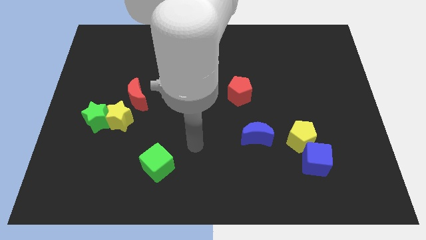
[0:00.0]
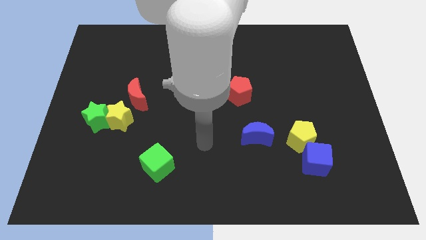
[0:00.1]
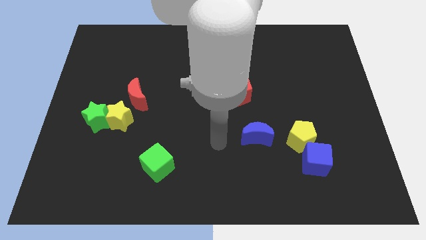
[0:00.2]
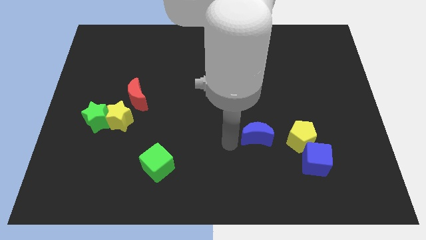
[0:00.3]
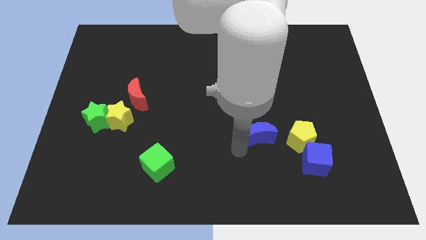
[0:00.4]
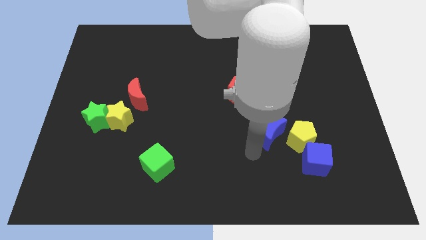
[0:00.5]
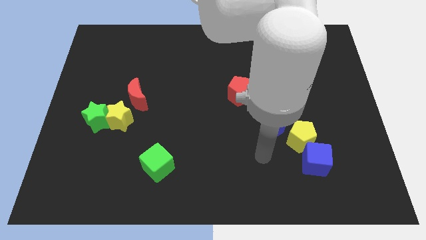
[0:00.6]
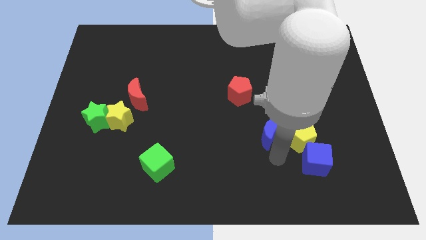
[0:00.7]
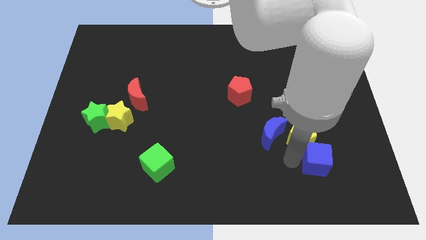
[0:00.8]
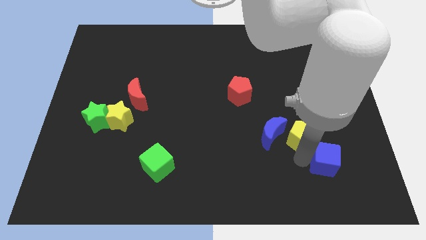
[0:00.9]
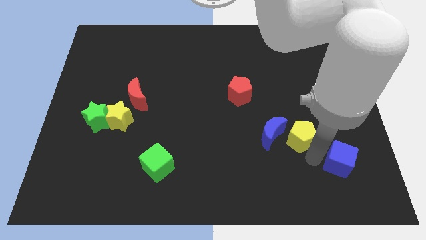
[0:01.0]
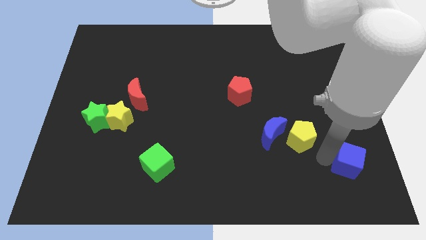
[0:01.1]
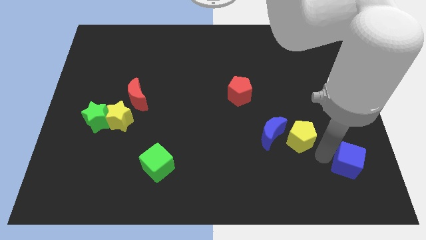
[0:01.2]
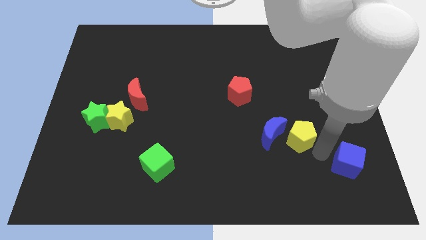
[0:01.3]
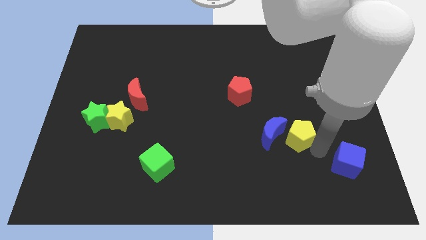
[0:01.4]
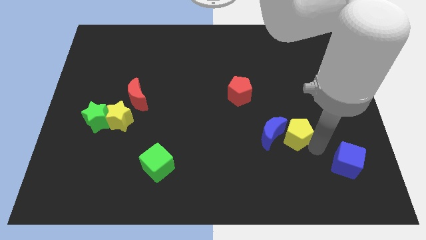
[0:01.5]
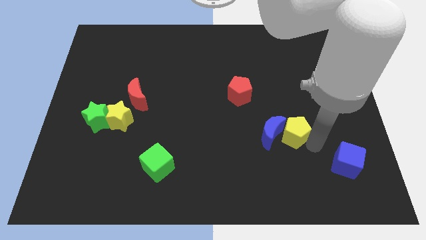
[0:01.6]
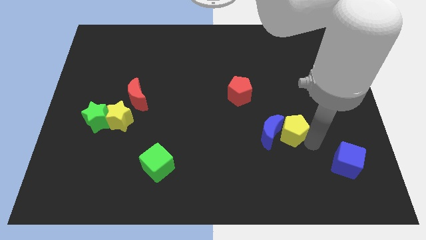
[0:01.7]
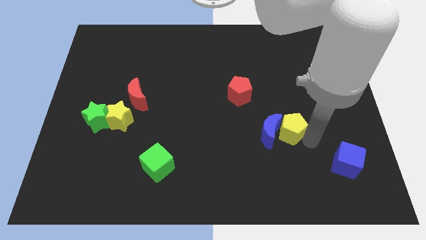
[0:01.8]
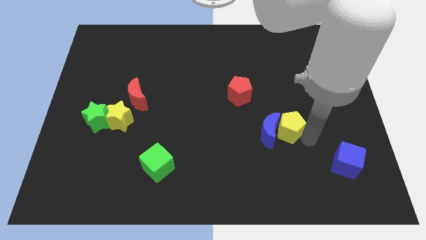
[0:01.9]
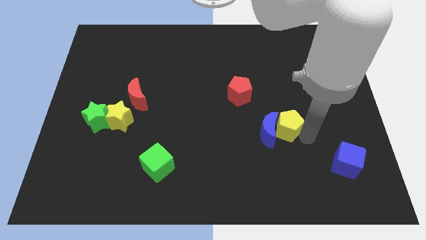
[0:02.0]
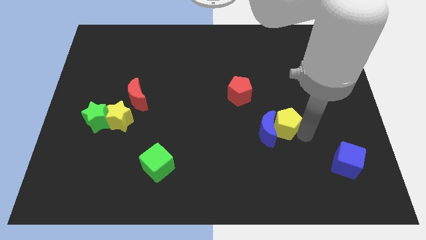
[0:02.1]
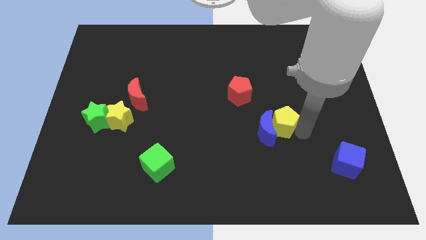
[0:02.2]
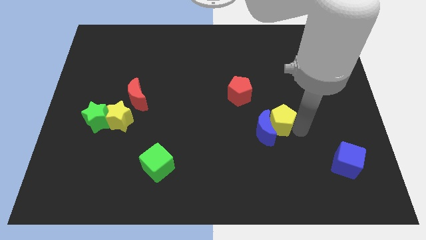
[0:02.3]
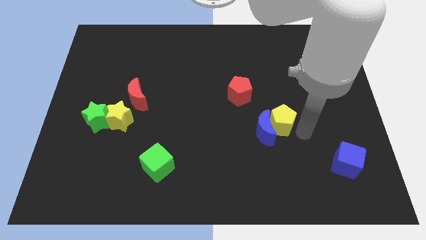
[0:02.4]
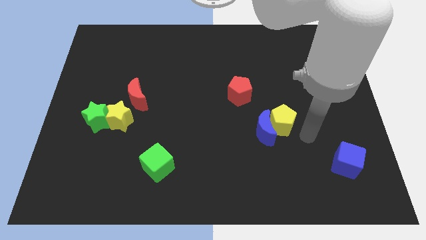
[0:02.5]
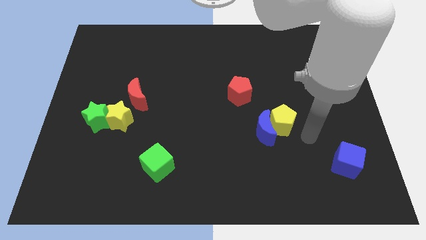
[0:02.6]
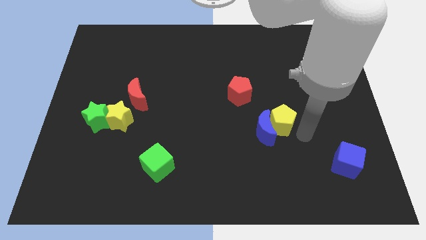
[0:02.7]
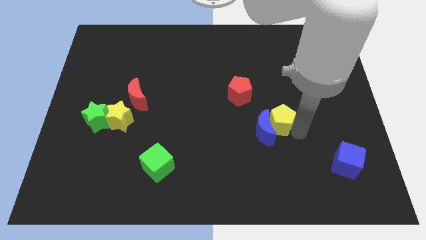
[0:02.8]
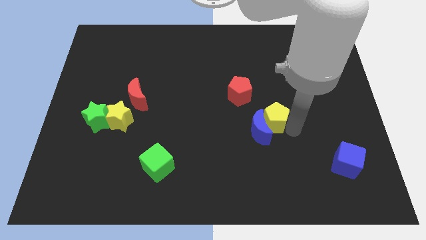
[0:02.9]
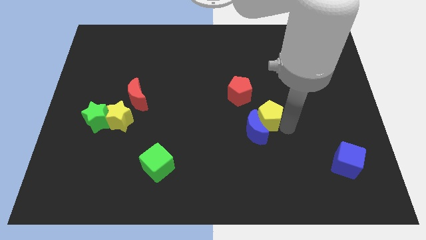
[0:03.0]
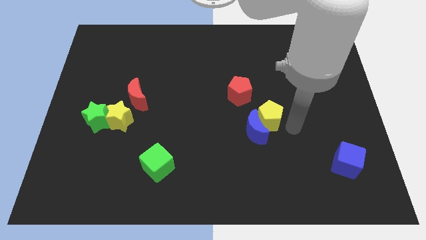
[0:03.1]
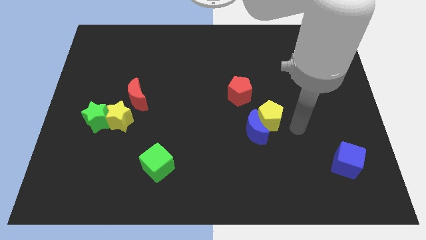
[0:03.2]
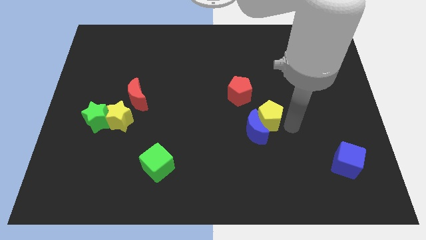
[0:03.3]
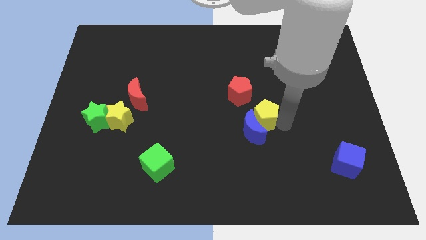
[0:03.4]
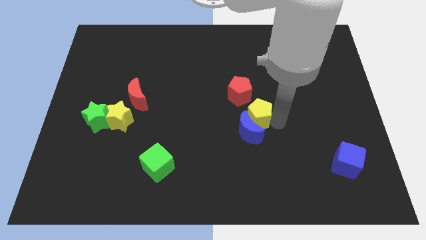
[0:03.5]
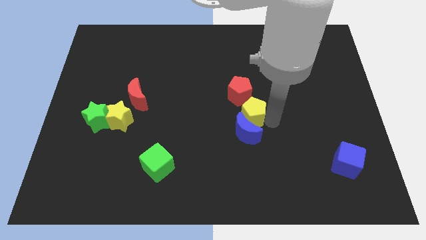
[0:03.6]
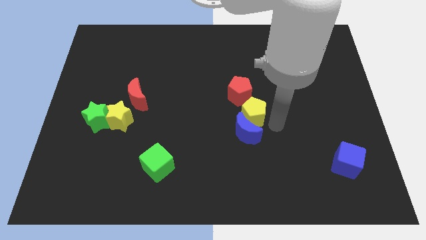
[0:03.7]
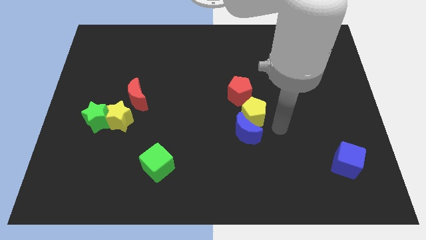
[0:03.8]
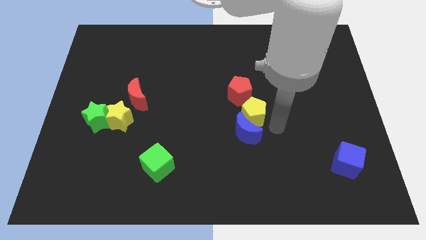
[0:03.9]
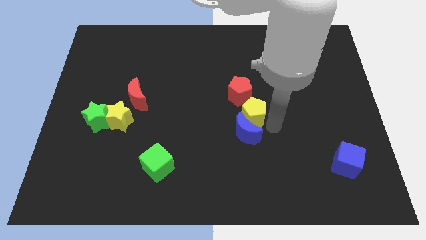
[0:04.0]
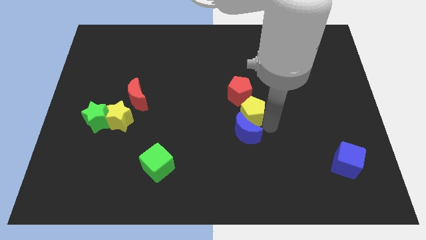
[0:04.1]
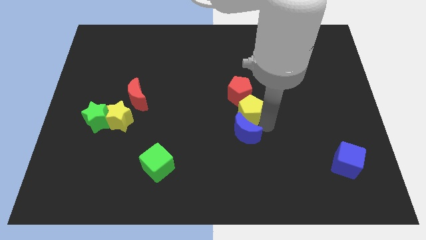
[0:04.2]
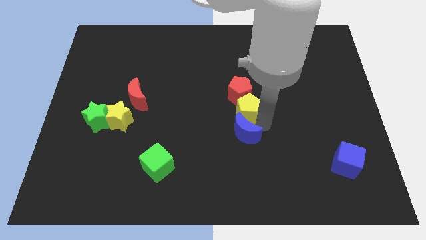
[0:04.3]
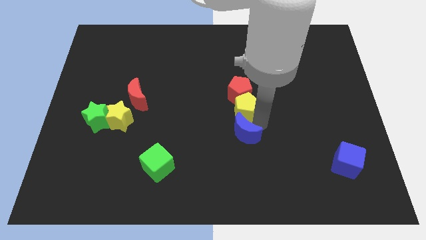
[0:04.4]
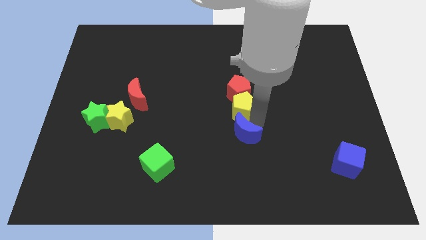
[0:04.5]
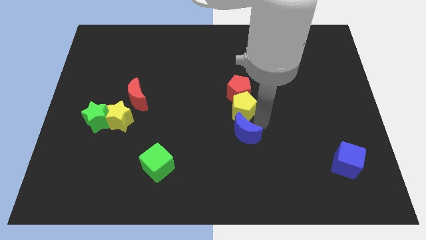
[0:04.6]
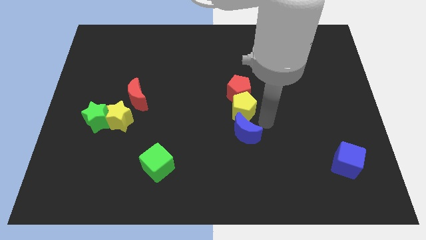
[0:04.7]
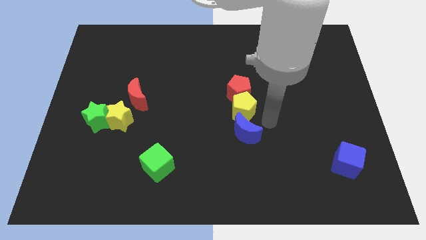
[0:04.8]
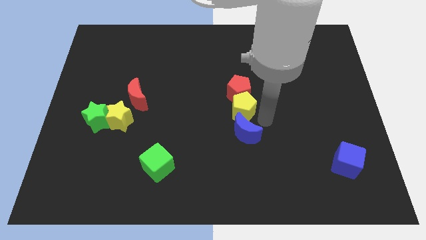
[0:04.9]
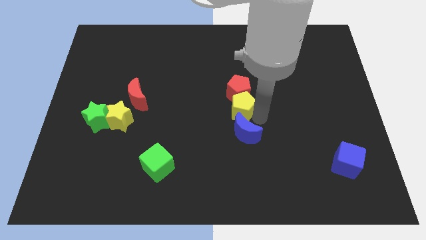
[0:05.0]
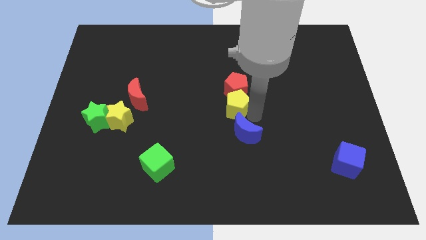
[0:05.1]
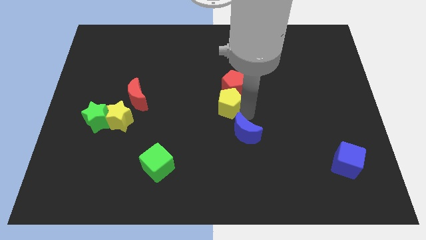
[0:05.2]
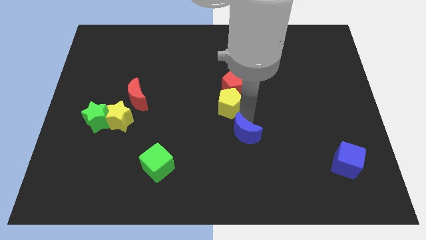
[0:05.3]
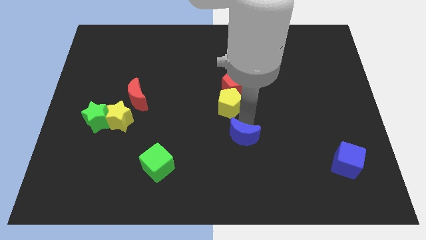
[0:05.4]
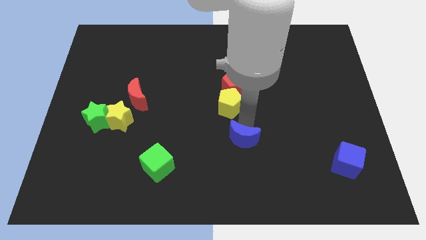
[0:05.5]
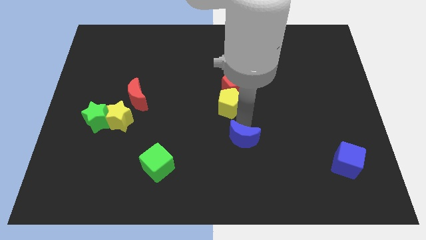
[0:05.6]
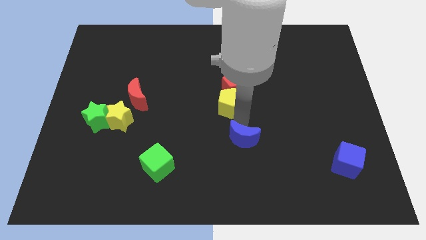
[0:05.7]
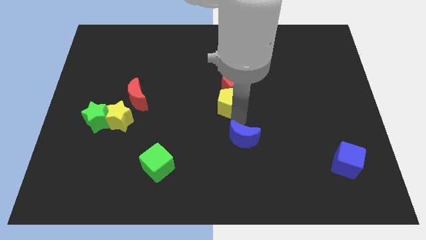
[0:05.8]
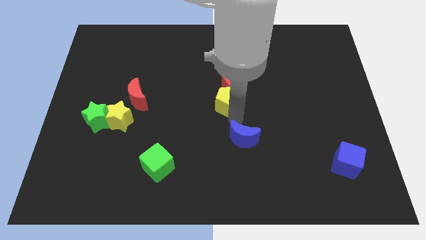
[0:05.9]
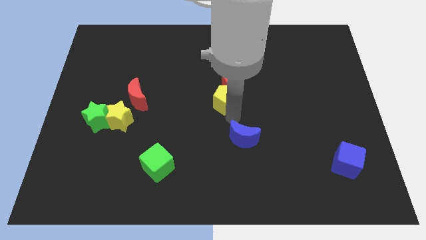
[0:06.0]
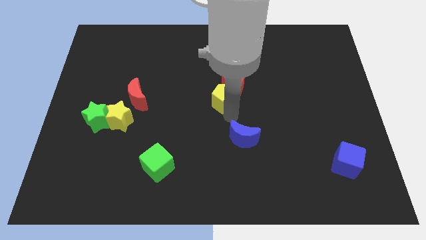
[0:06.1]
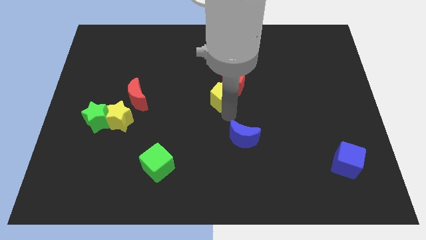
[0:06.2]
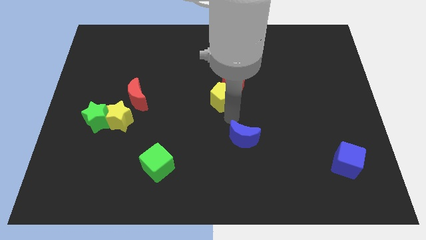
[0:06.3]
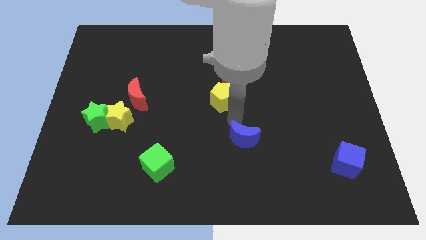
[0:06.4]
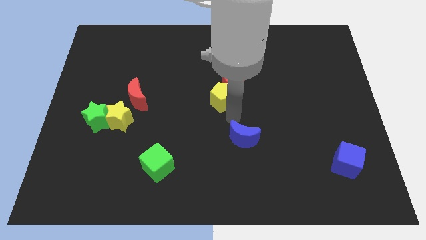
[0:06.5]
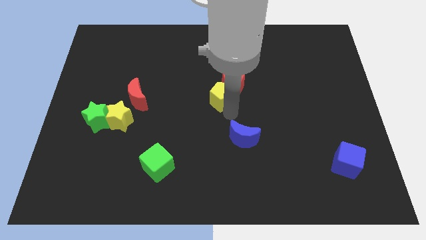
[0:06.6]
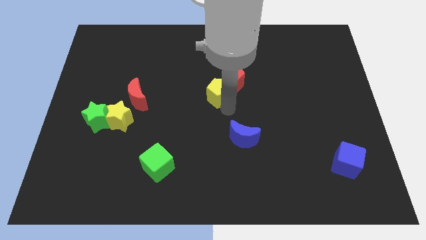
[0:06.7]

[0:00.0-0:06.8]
move the yellow pentagon up and then left

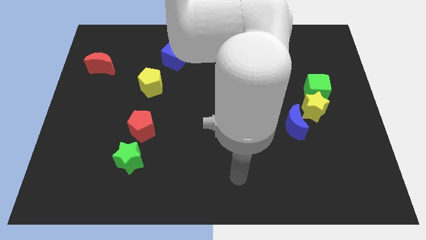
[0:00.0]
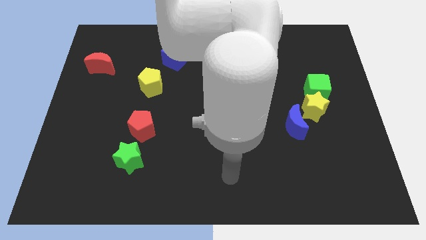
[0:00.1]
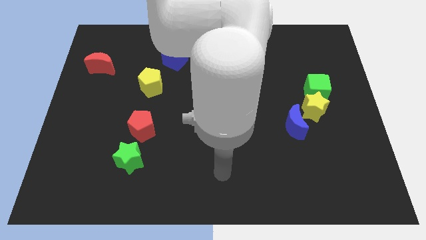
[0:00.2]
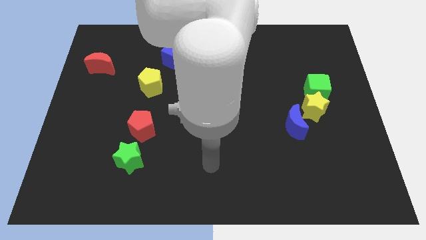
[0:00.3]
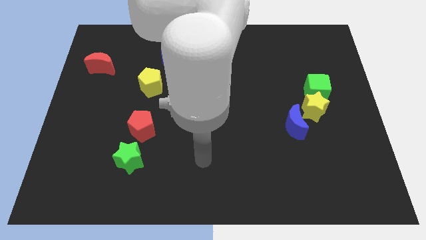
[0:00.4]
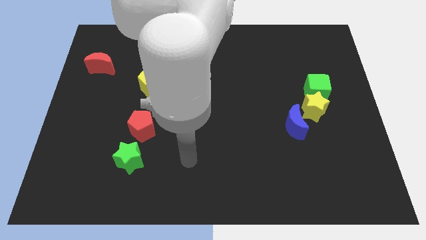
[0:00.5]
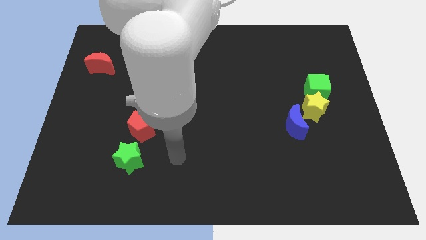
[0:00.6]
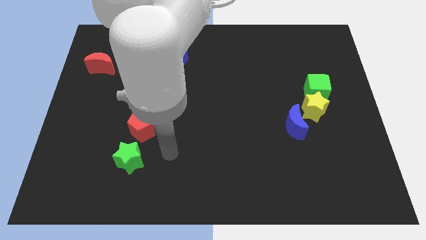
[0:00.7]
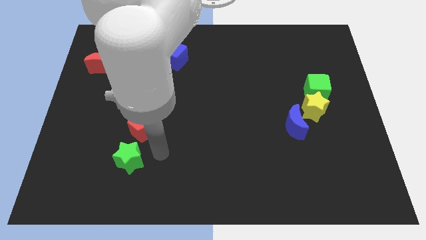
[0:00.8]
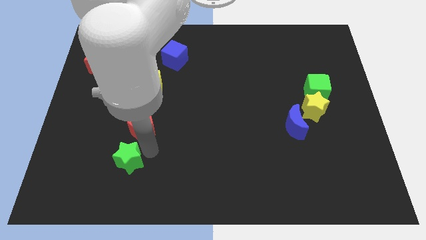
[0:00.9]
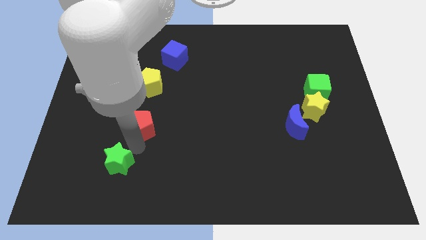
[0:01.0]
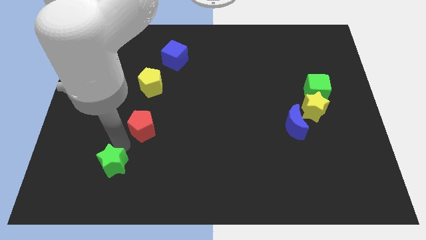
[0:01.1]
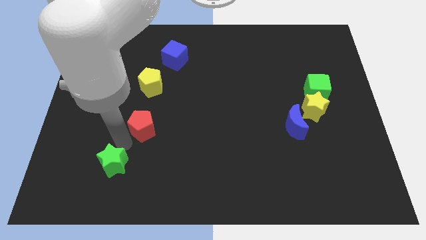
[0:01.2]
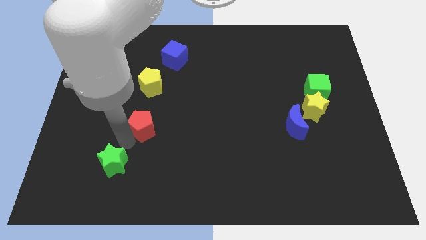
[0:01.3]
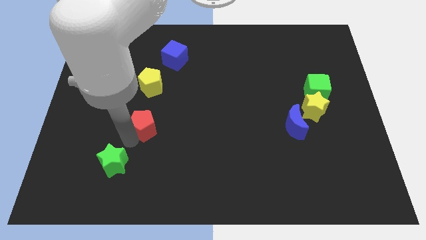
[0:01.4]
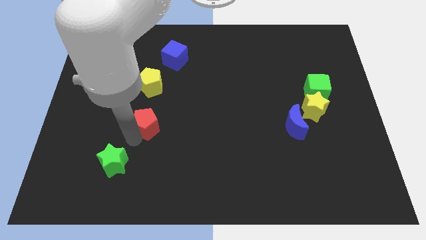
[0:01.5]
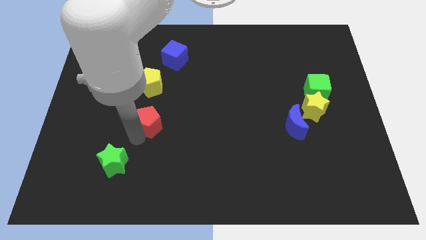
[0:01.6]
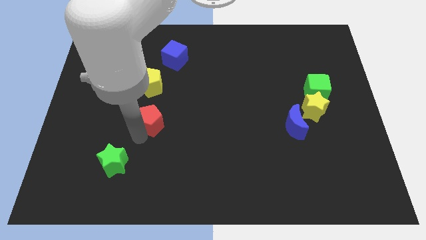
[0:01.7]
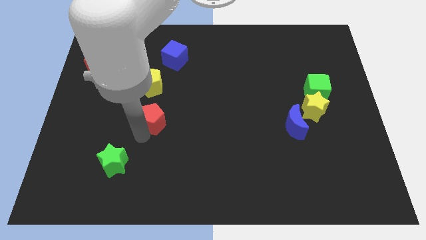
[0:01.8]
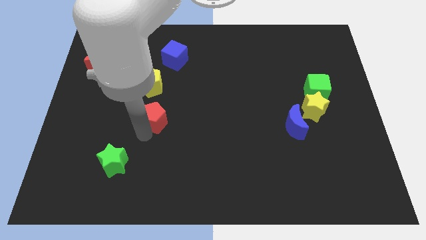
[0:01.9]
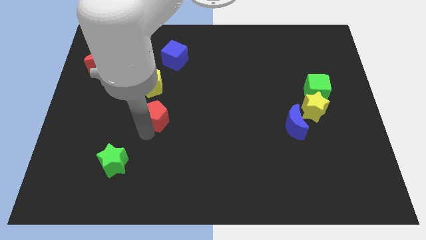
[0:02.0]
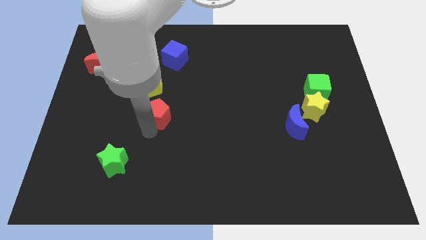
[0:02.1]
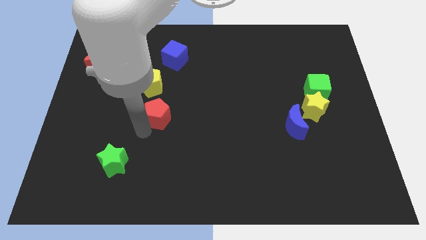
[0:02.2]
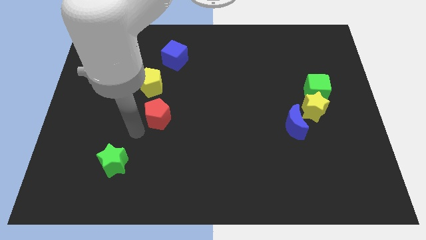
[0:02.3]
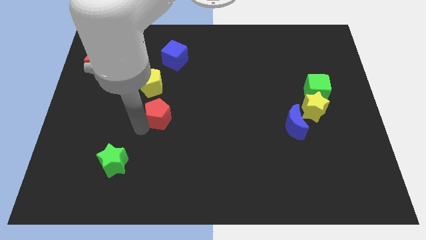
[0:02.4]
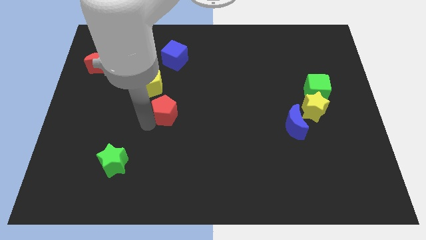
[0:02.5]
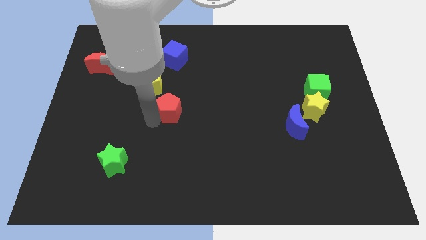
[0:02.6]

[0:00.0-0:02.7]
slightly slide the red pentagon upwards and to the right
